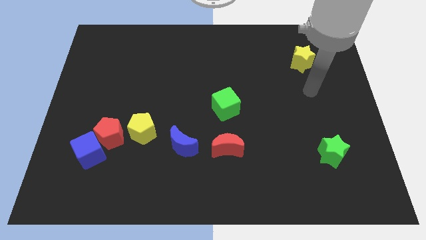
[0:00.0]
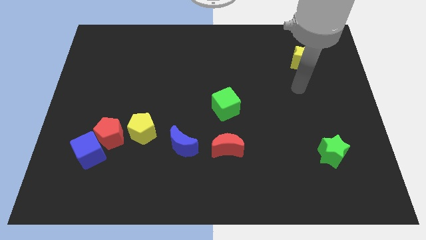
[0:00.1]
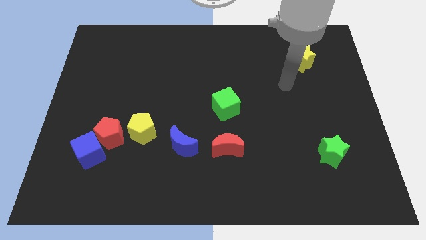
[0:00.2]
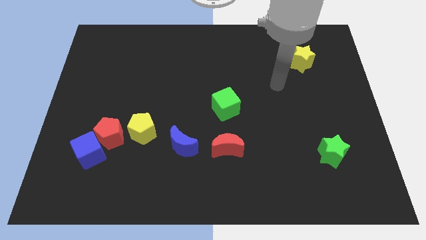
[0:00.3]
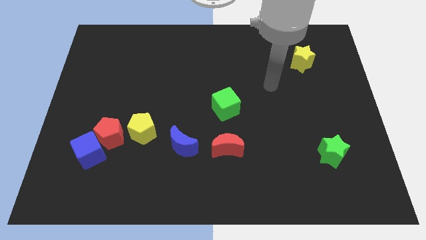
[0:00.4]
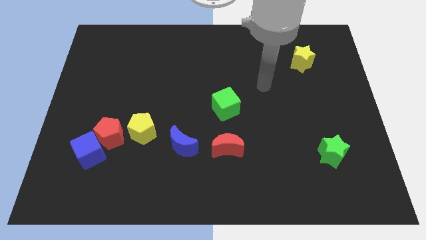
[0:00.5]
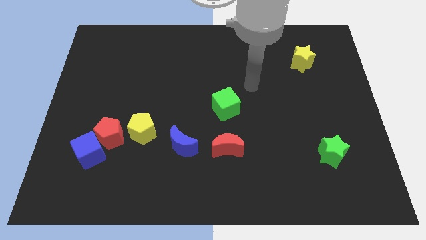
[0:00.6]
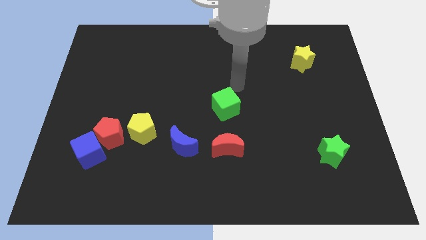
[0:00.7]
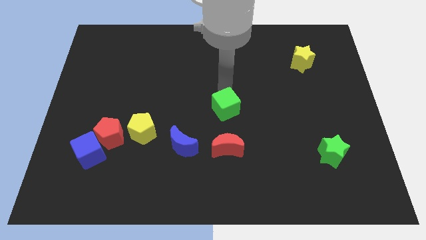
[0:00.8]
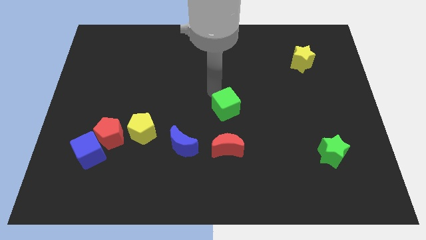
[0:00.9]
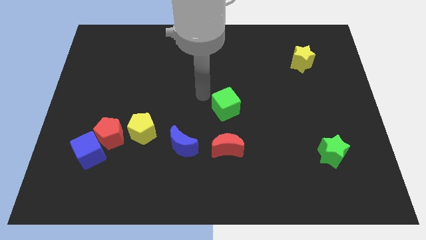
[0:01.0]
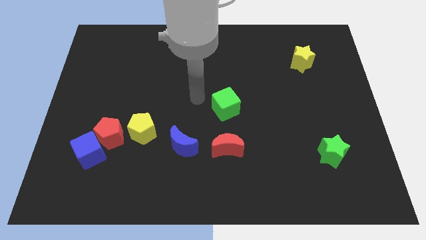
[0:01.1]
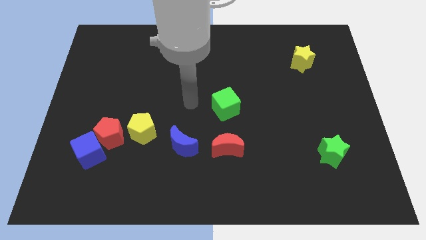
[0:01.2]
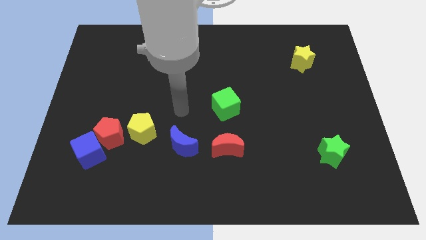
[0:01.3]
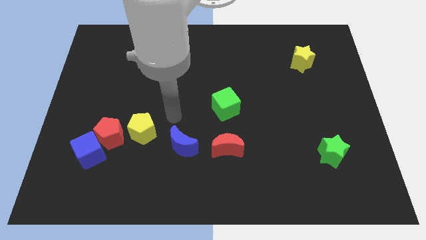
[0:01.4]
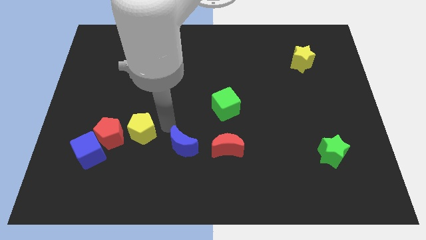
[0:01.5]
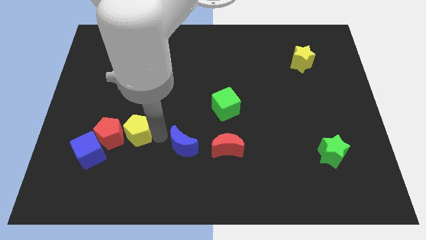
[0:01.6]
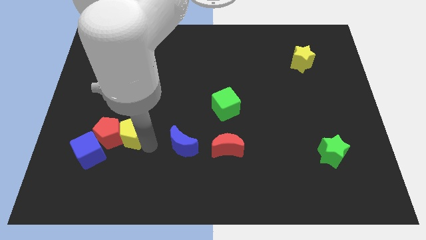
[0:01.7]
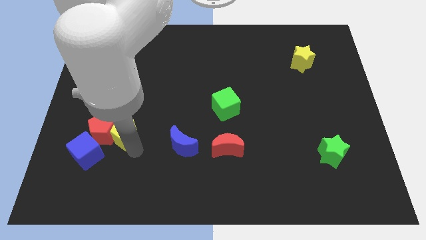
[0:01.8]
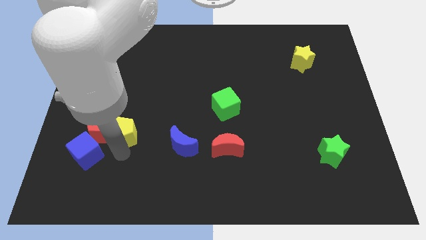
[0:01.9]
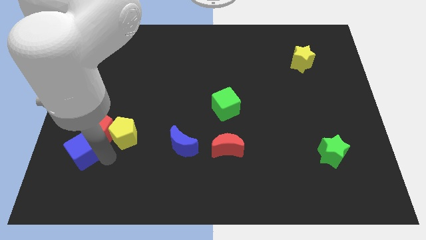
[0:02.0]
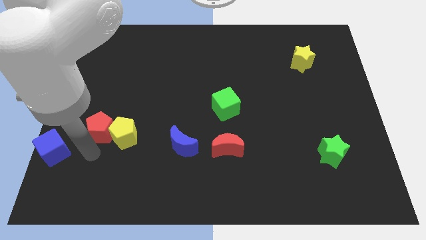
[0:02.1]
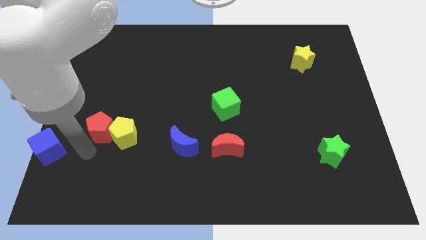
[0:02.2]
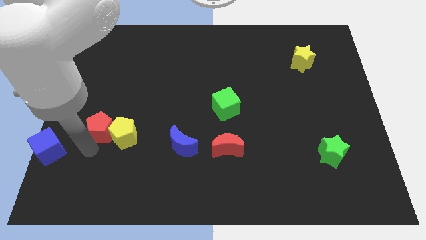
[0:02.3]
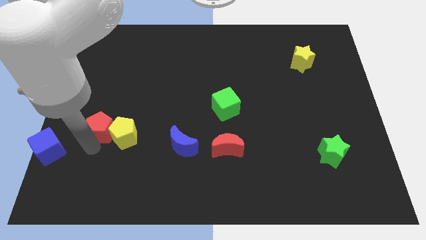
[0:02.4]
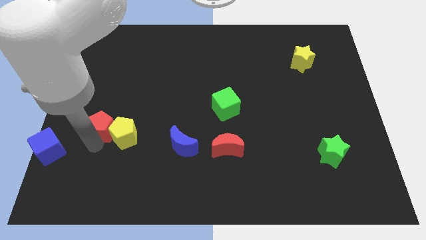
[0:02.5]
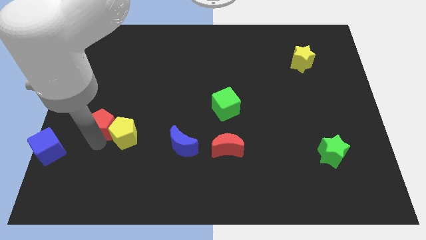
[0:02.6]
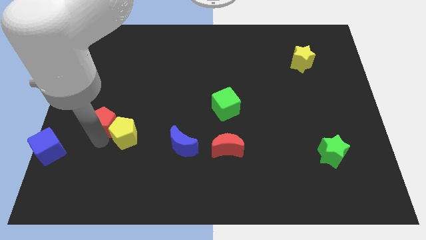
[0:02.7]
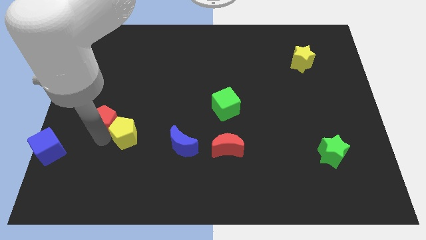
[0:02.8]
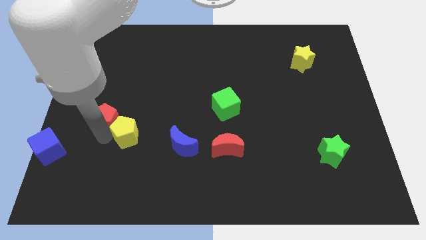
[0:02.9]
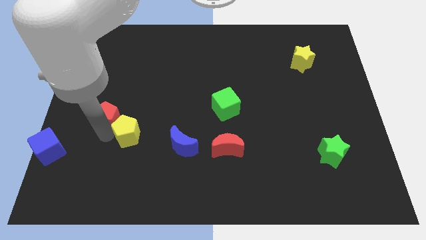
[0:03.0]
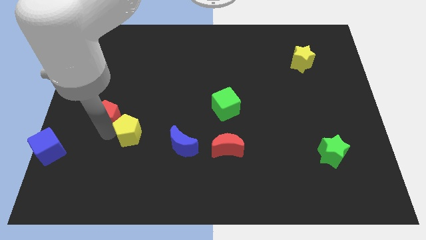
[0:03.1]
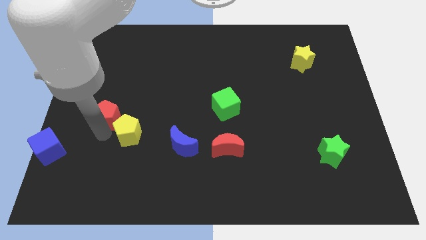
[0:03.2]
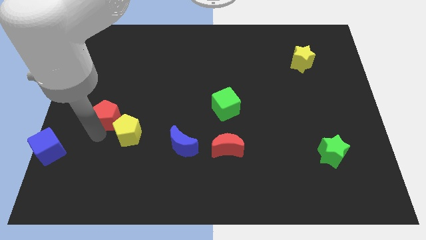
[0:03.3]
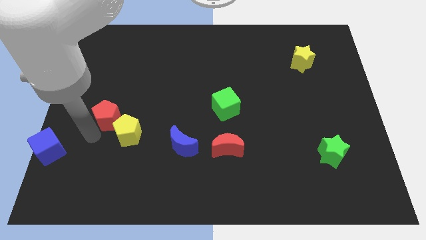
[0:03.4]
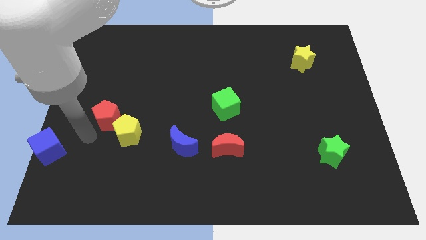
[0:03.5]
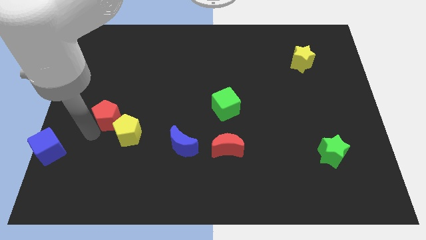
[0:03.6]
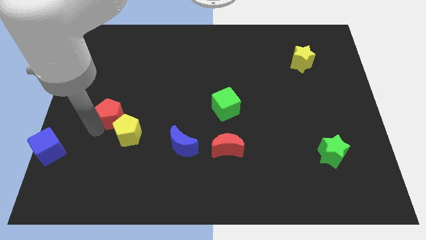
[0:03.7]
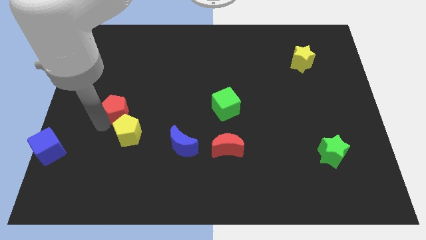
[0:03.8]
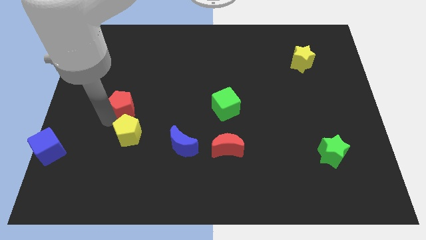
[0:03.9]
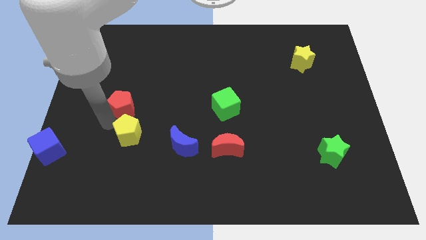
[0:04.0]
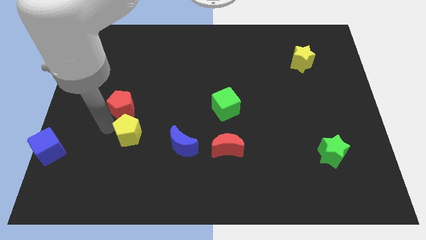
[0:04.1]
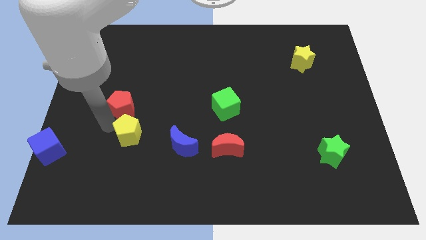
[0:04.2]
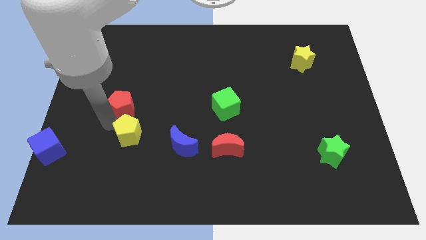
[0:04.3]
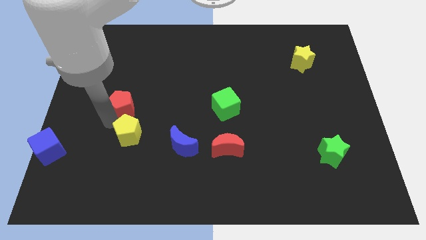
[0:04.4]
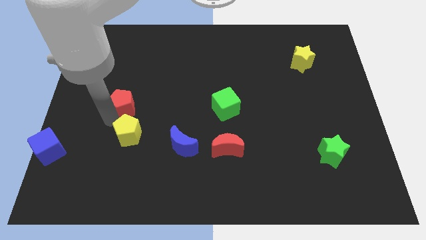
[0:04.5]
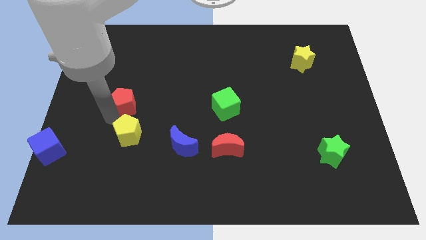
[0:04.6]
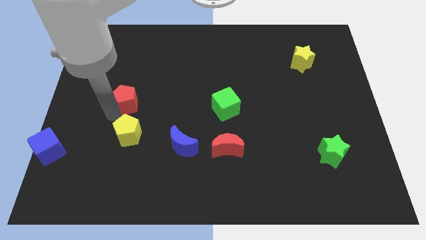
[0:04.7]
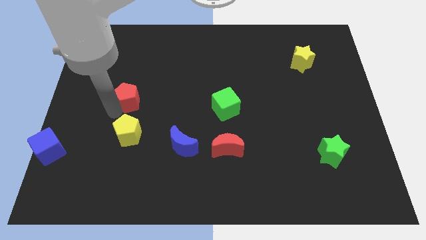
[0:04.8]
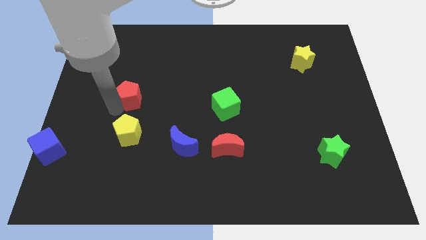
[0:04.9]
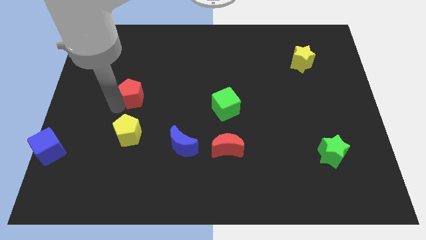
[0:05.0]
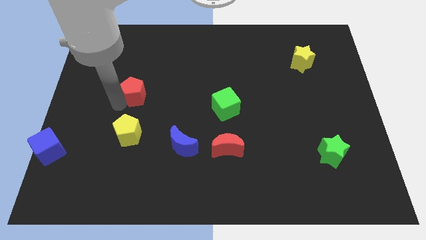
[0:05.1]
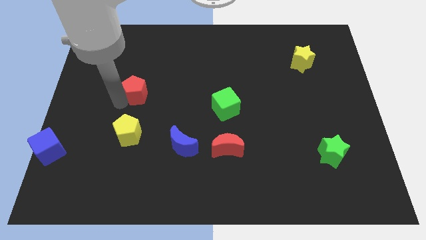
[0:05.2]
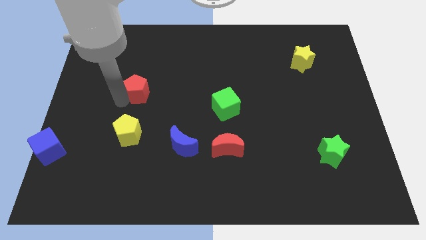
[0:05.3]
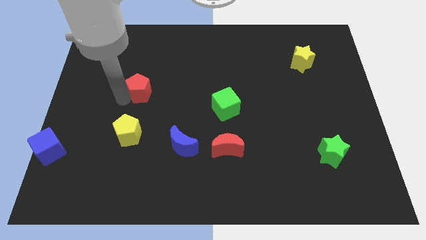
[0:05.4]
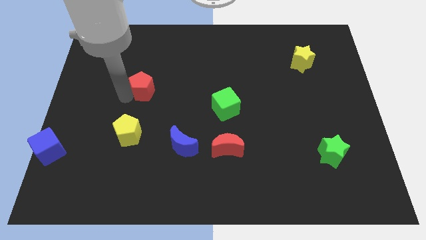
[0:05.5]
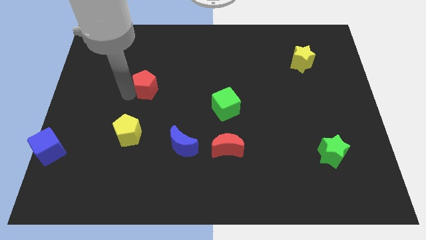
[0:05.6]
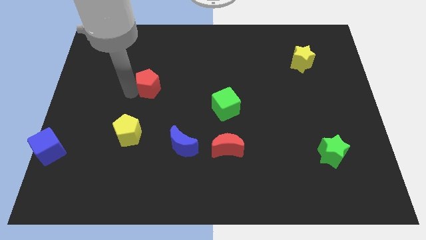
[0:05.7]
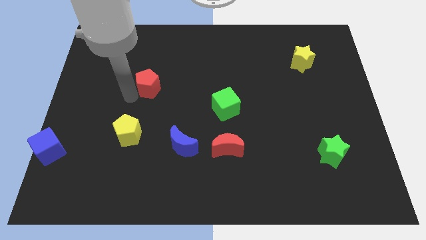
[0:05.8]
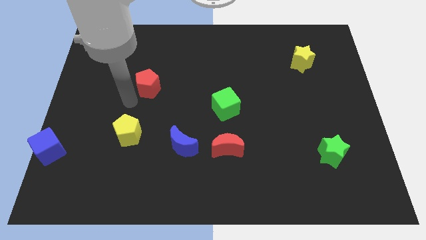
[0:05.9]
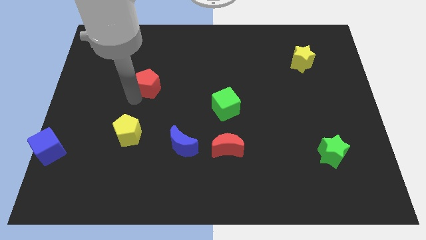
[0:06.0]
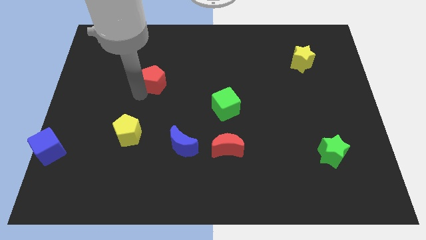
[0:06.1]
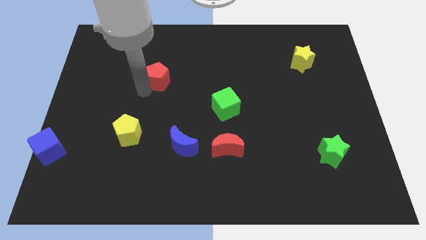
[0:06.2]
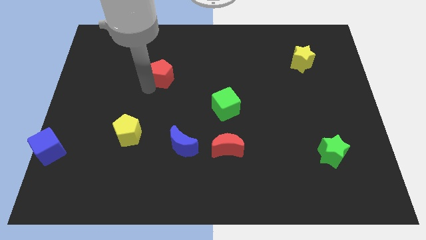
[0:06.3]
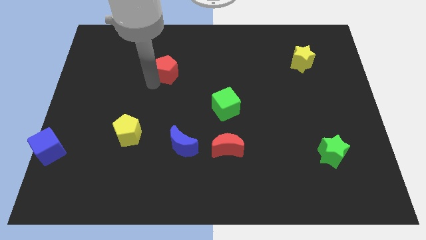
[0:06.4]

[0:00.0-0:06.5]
push the red pentagon diagonally upwards and to the right

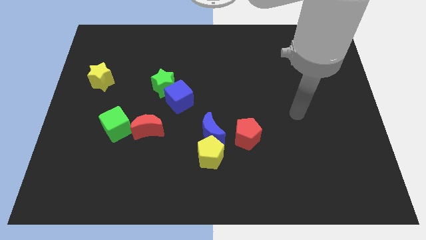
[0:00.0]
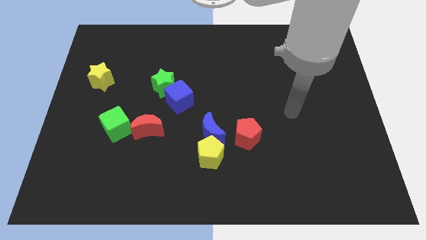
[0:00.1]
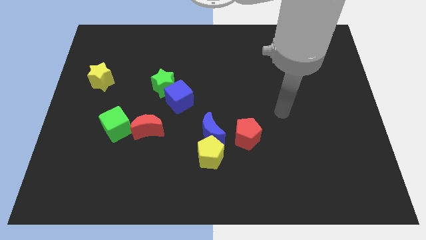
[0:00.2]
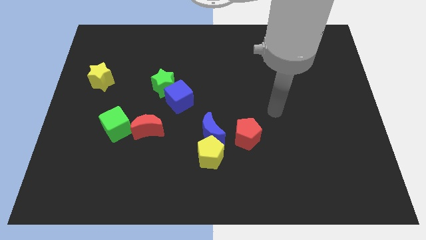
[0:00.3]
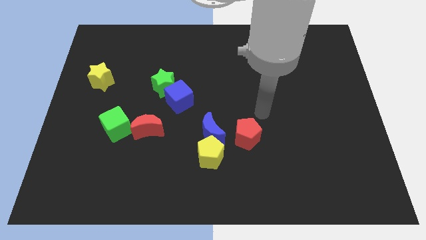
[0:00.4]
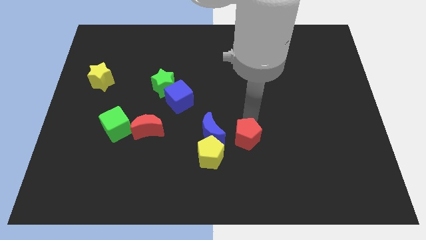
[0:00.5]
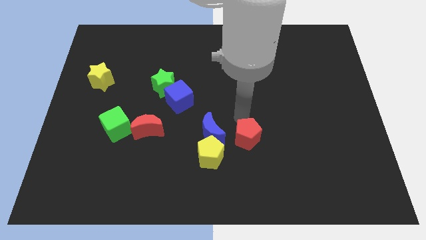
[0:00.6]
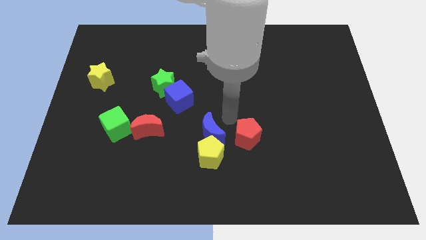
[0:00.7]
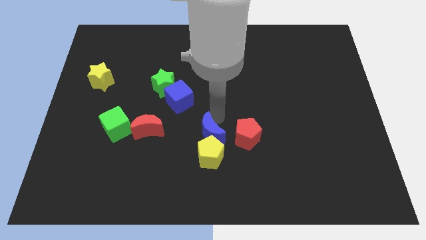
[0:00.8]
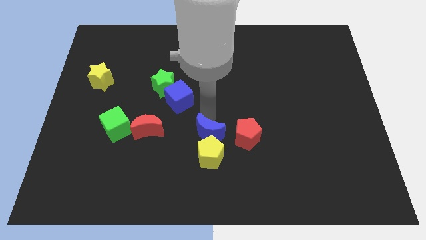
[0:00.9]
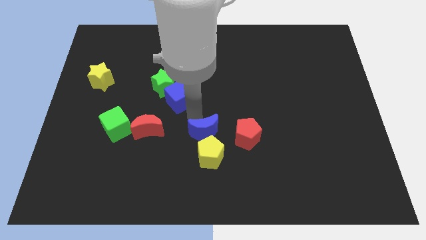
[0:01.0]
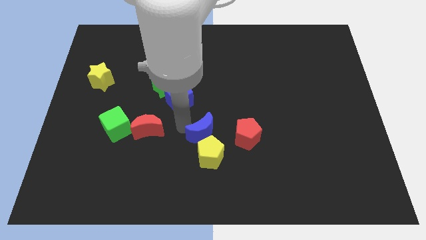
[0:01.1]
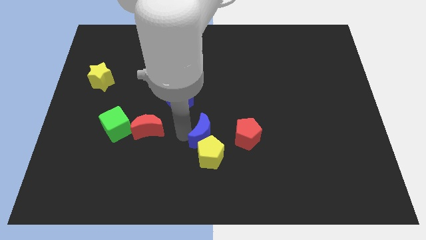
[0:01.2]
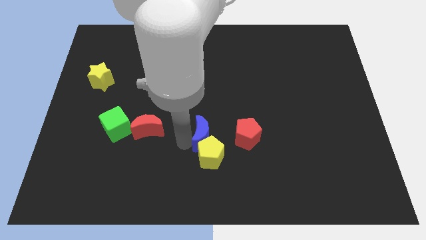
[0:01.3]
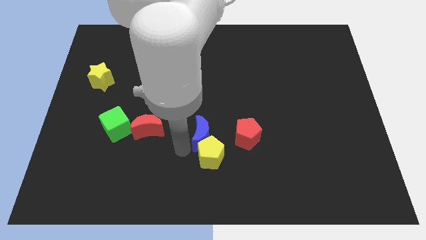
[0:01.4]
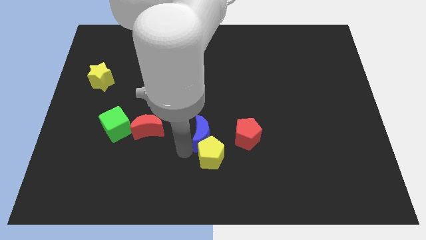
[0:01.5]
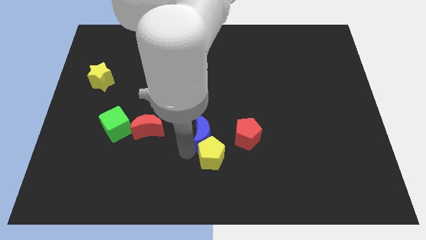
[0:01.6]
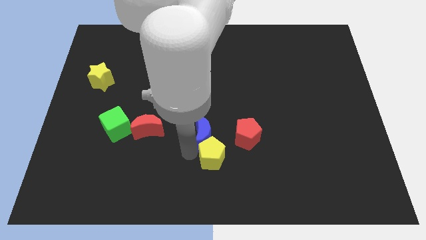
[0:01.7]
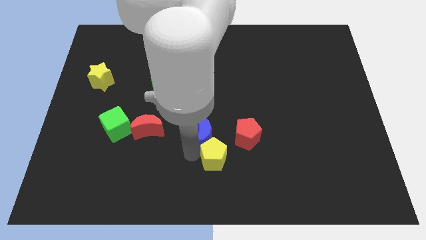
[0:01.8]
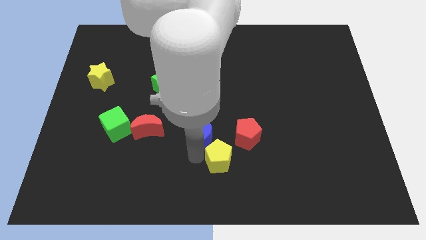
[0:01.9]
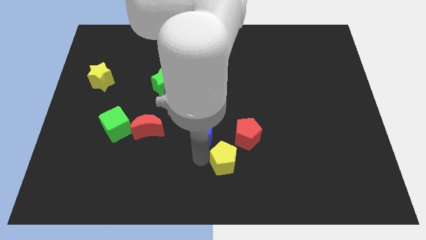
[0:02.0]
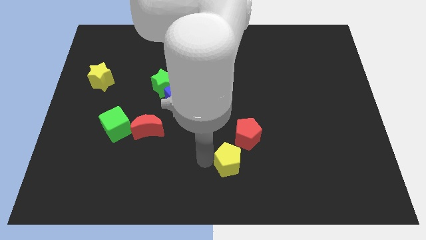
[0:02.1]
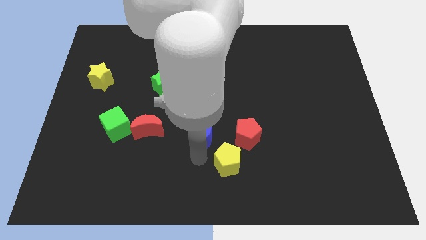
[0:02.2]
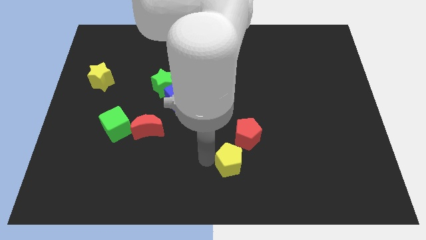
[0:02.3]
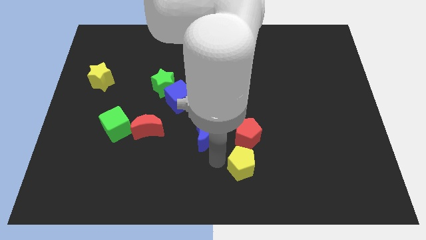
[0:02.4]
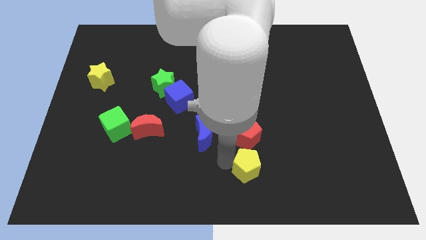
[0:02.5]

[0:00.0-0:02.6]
move the yellow pentagon to the right a little
